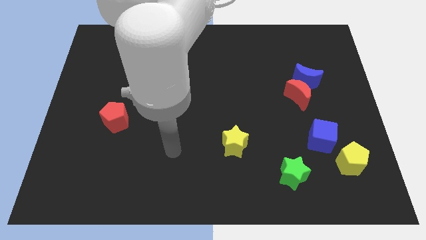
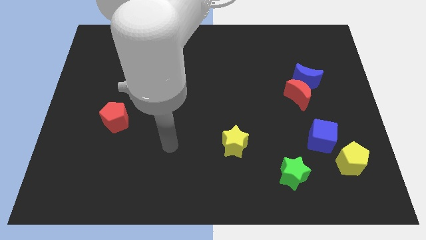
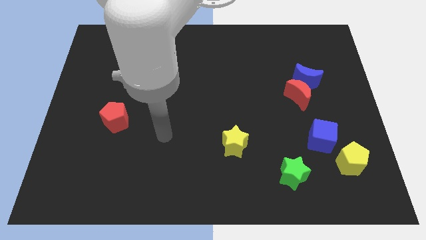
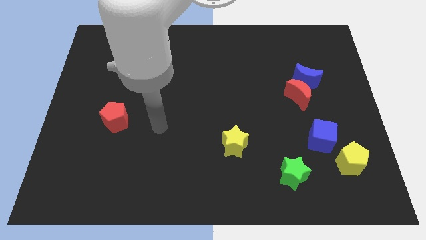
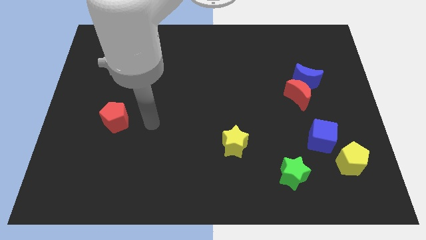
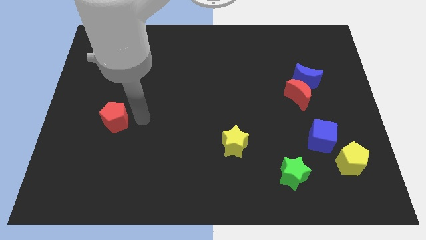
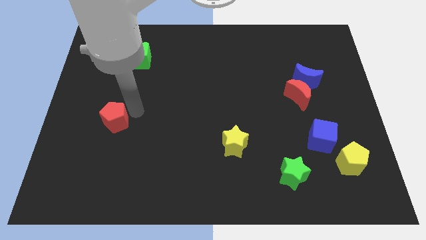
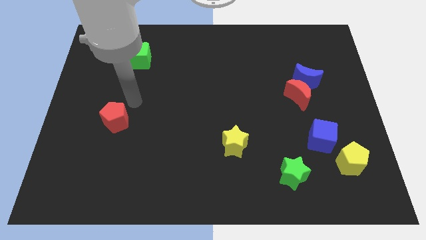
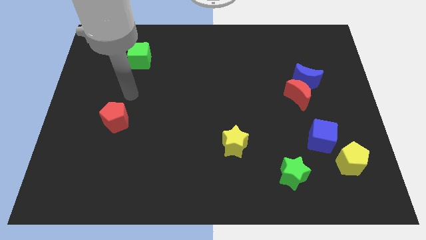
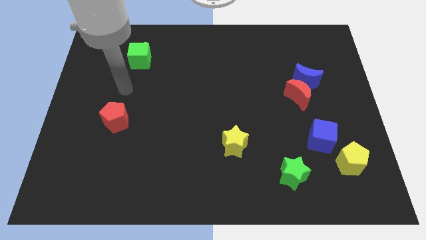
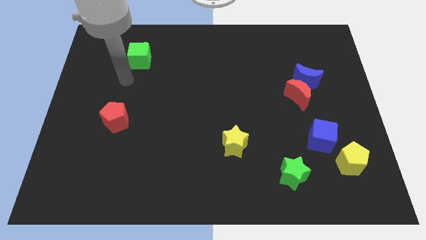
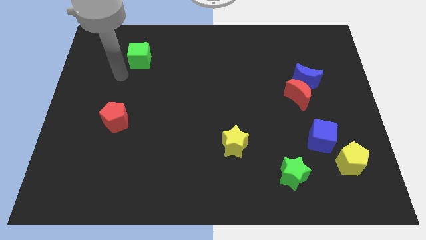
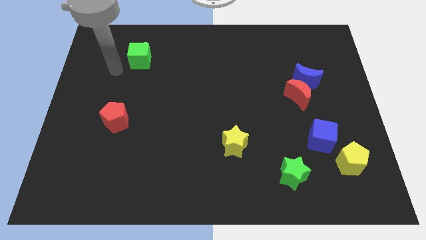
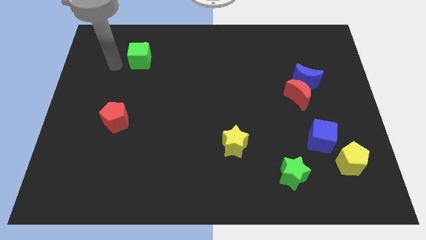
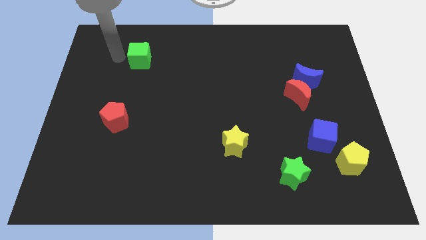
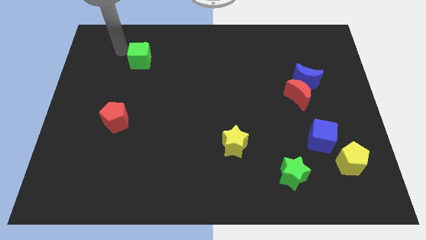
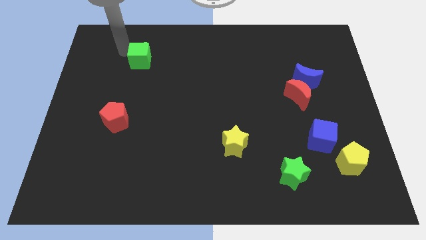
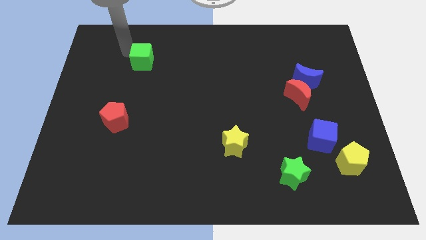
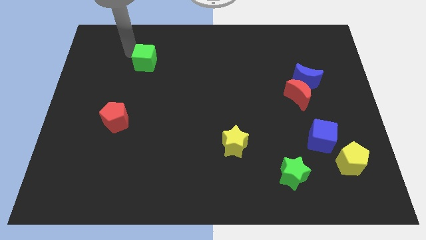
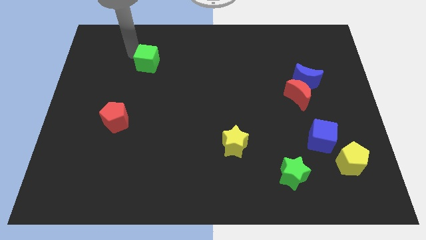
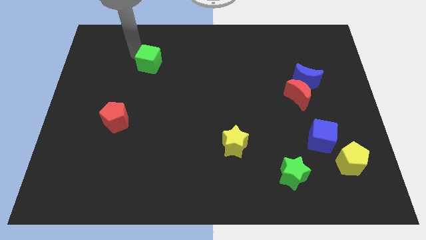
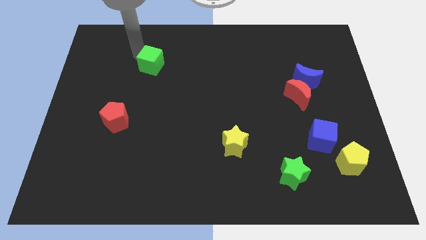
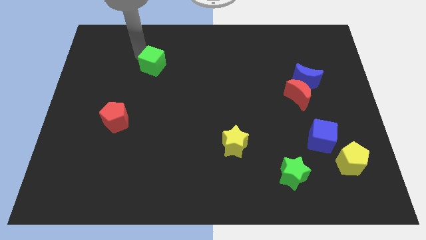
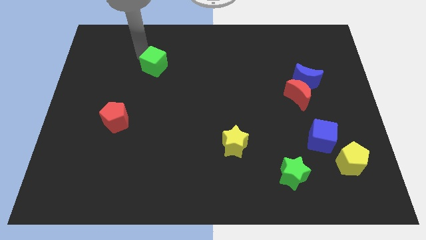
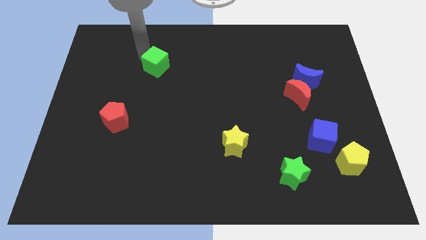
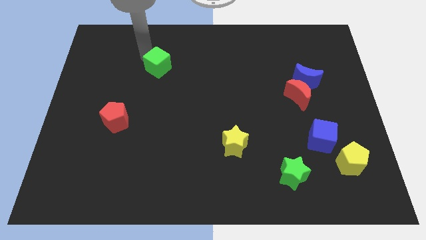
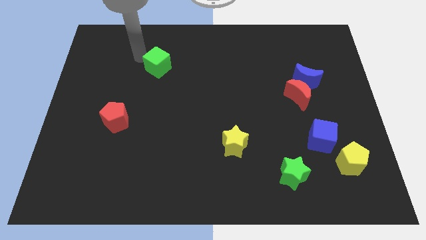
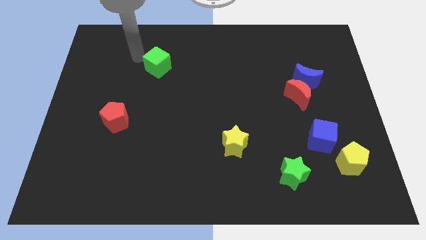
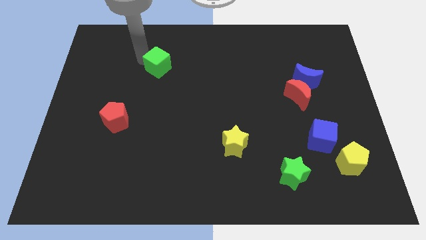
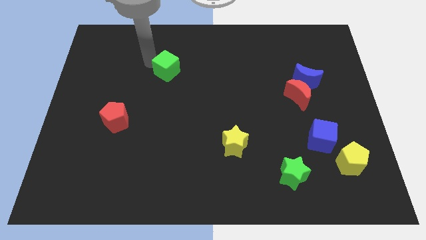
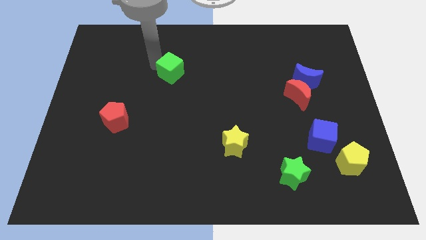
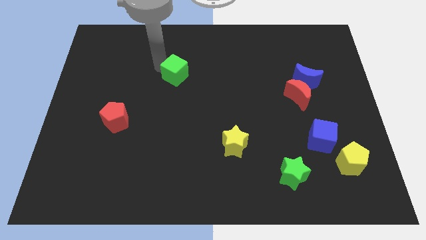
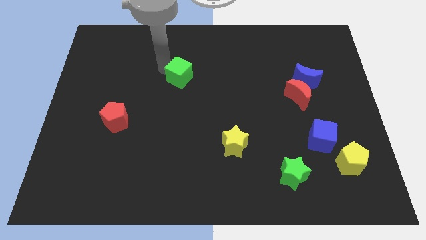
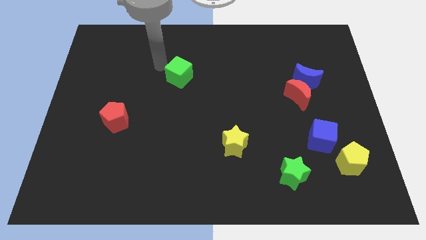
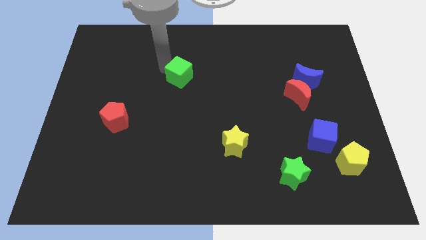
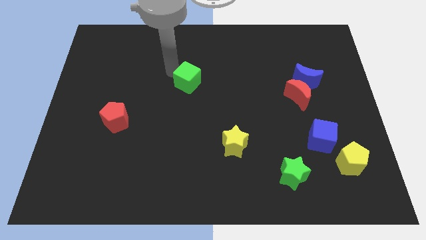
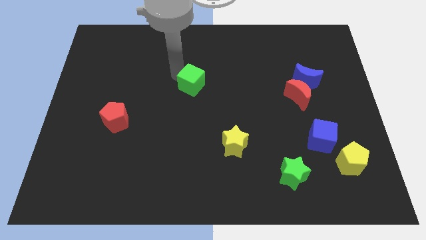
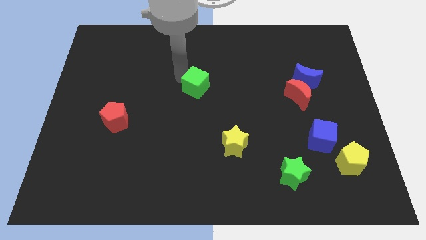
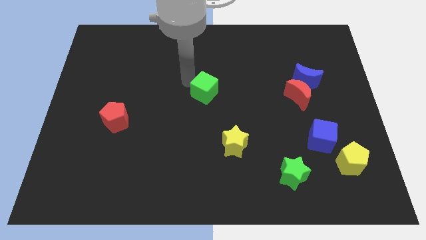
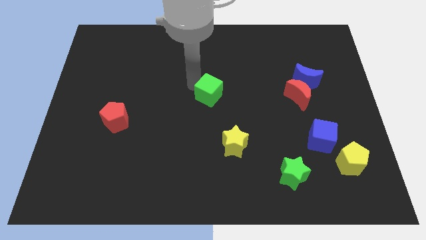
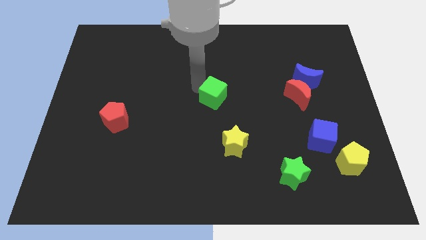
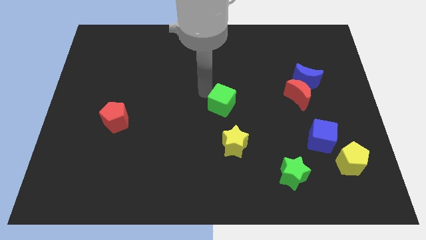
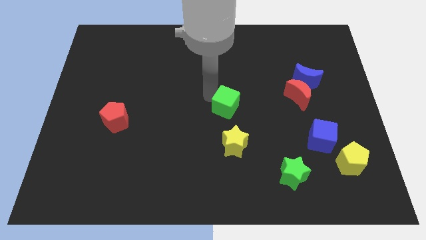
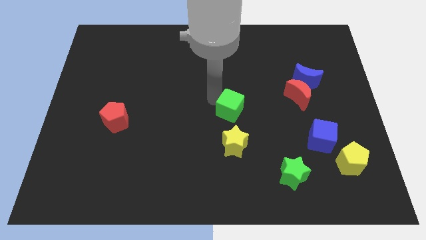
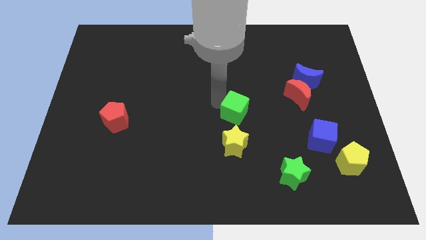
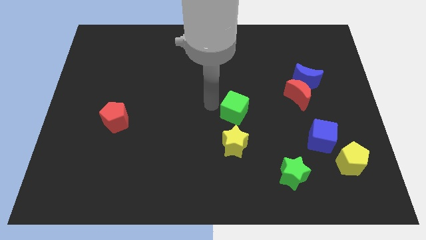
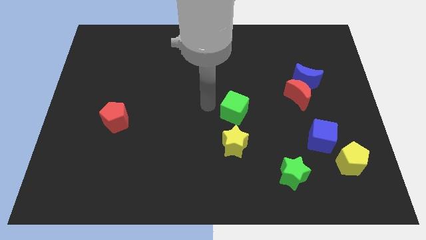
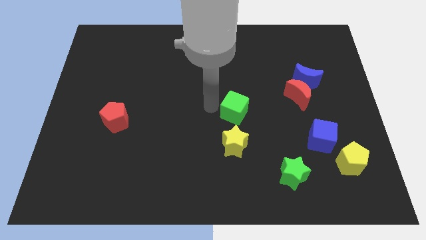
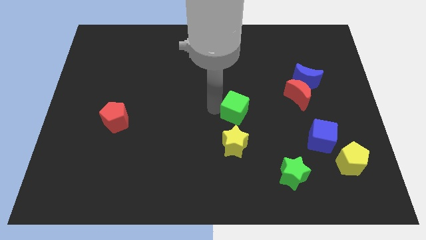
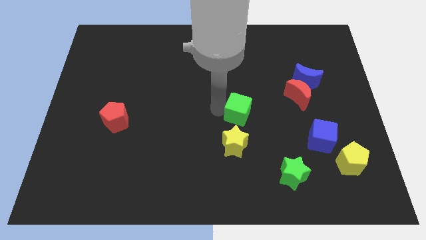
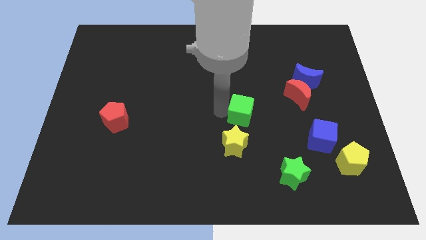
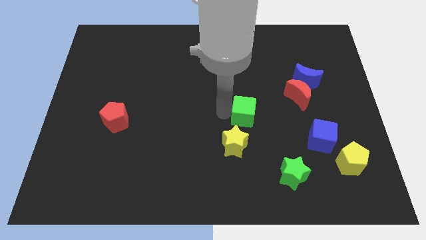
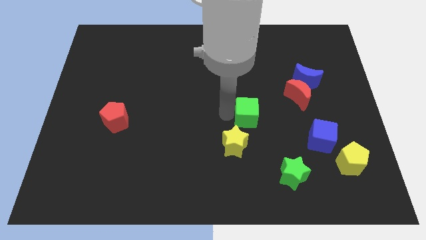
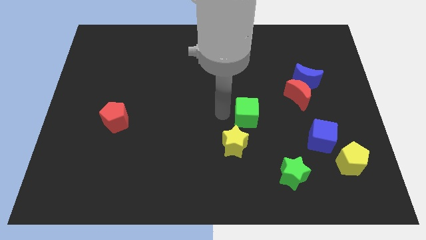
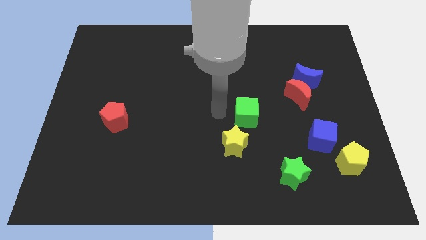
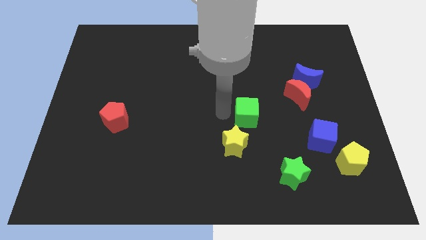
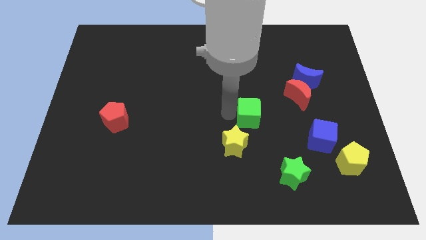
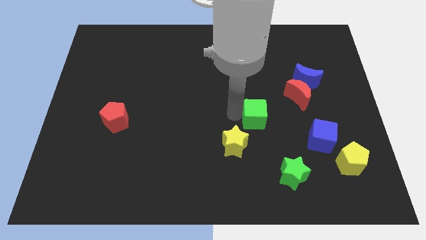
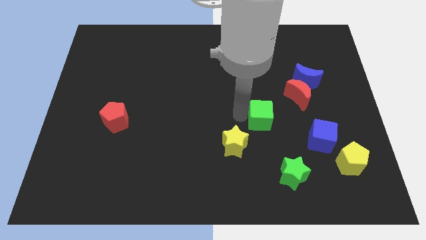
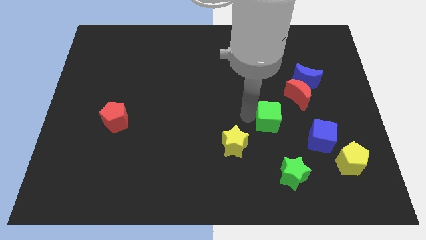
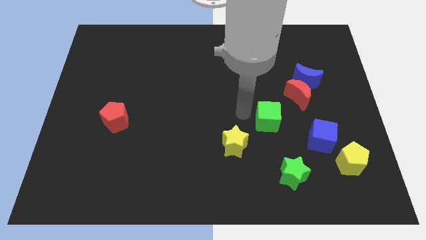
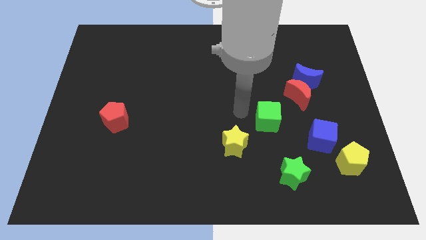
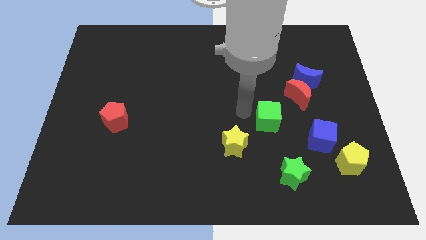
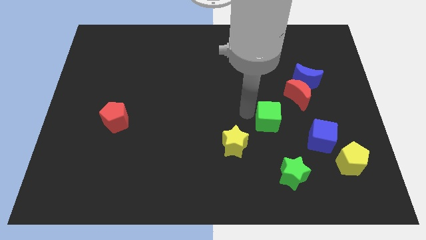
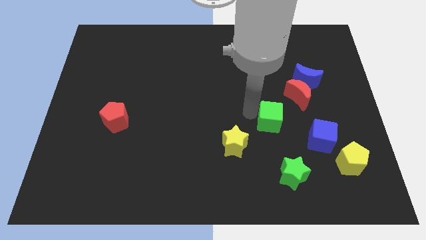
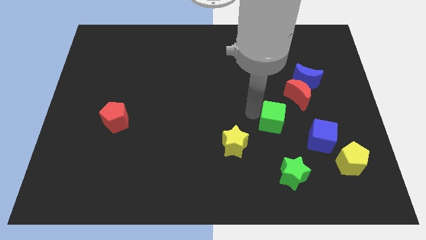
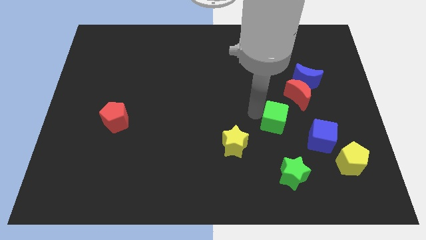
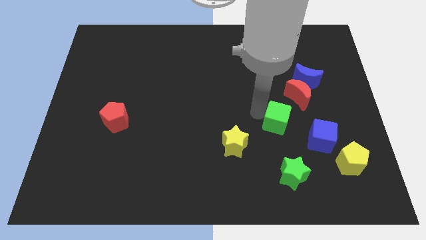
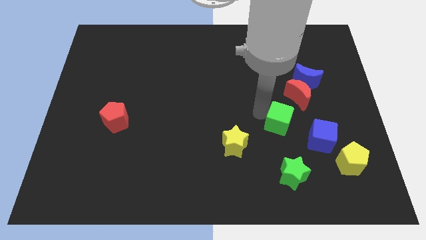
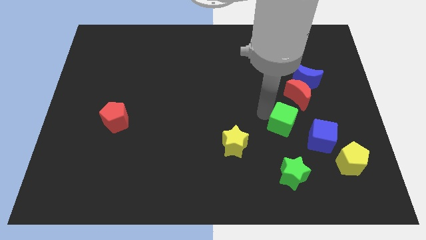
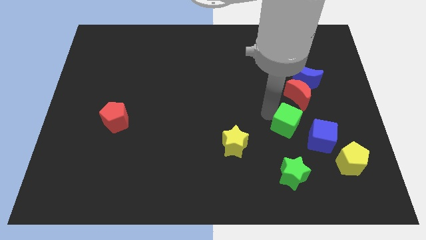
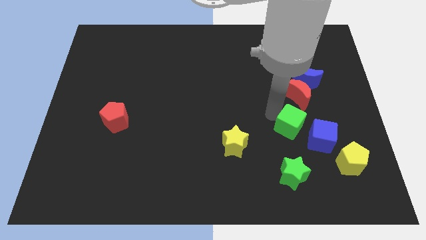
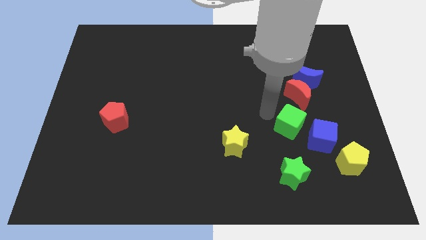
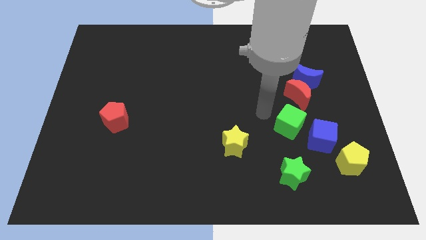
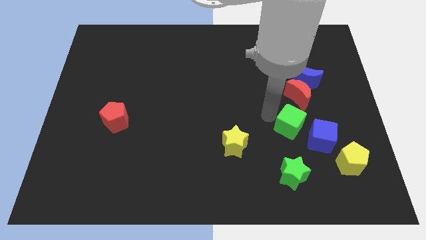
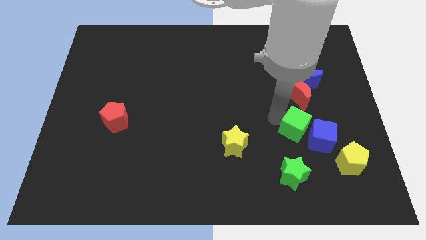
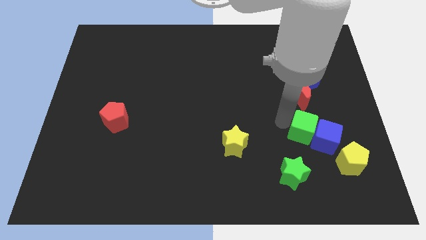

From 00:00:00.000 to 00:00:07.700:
push the green cube to the blue cube
